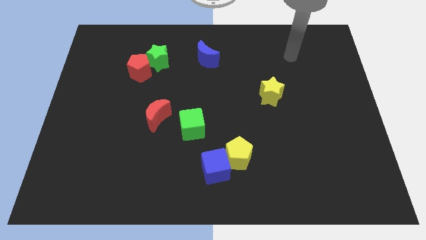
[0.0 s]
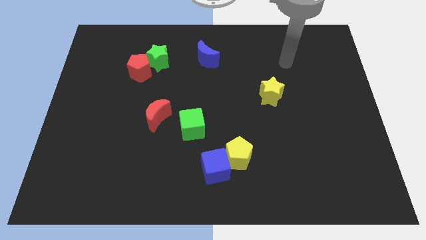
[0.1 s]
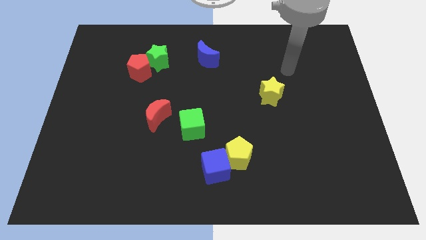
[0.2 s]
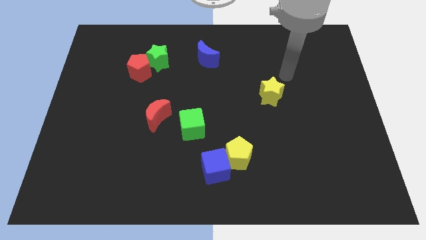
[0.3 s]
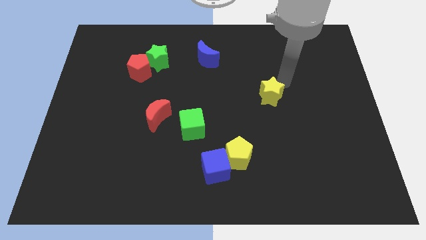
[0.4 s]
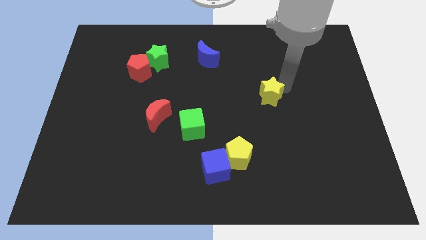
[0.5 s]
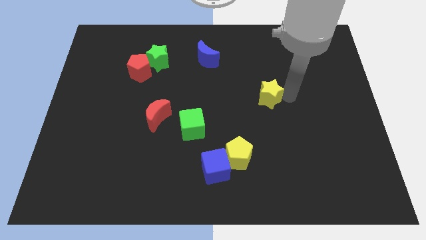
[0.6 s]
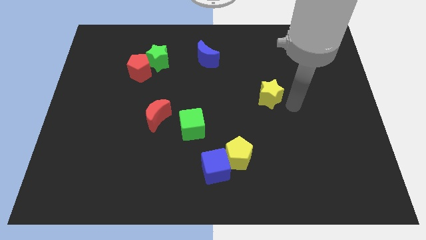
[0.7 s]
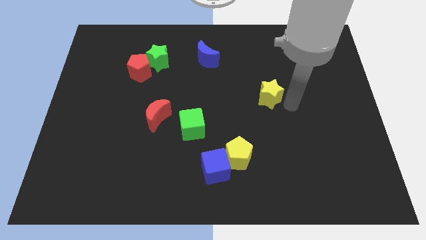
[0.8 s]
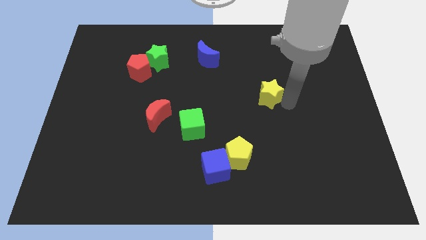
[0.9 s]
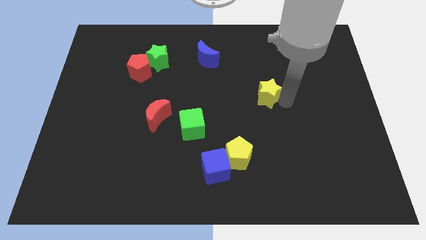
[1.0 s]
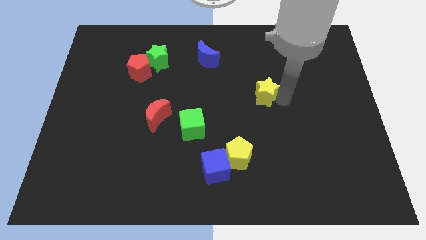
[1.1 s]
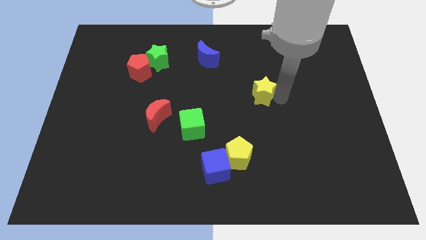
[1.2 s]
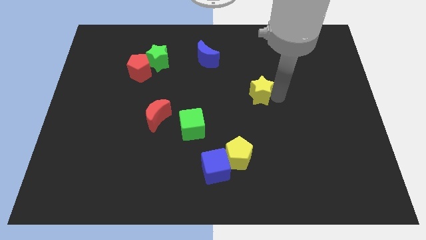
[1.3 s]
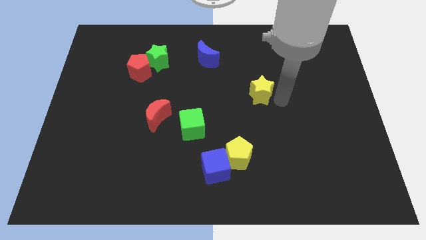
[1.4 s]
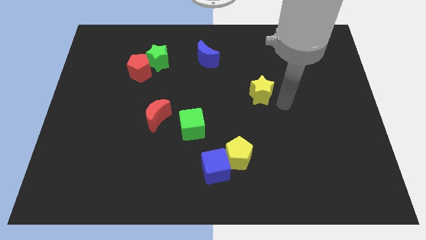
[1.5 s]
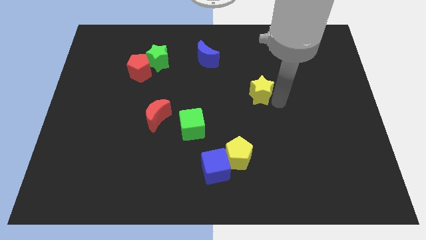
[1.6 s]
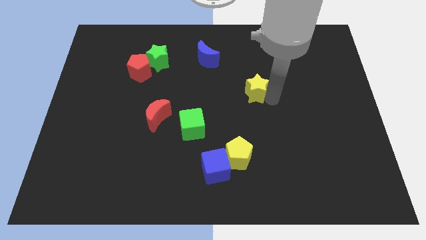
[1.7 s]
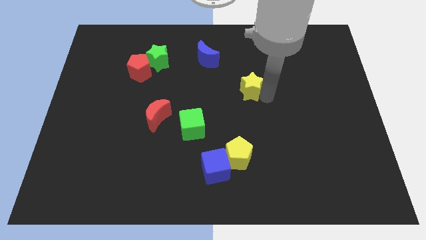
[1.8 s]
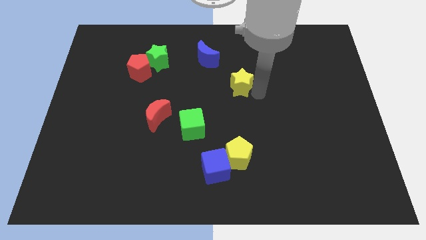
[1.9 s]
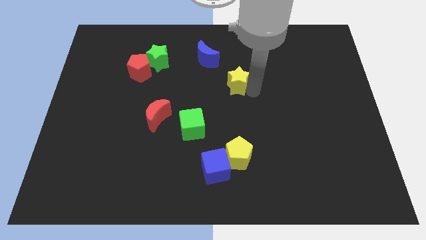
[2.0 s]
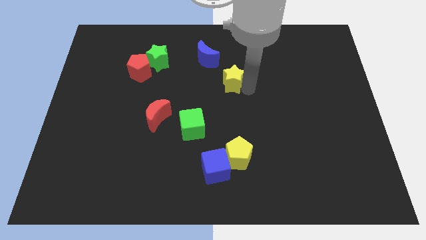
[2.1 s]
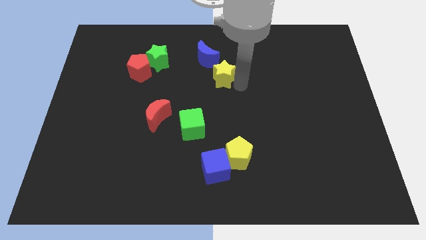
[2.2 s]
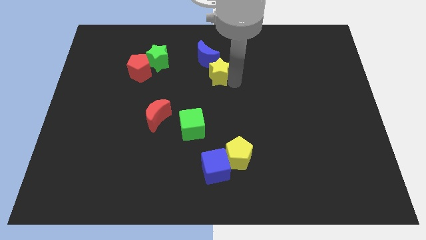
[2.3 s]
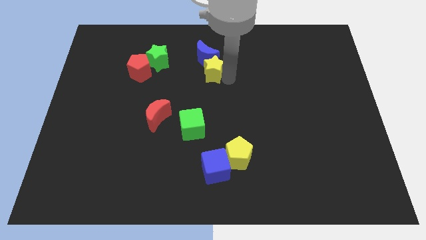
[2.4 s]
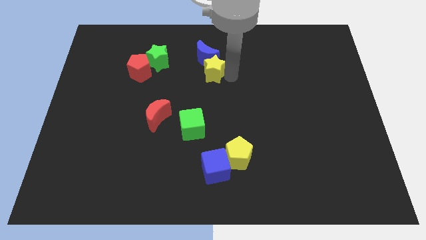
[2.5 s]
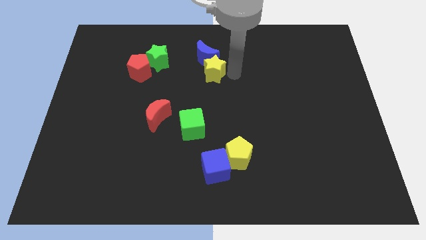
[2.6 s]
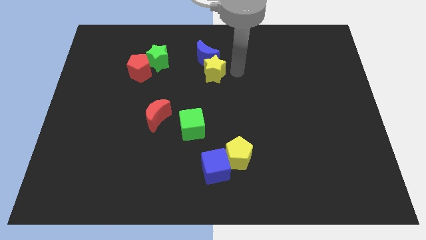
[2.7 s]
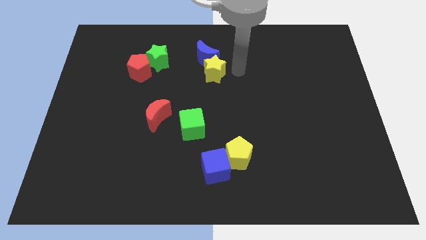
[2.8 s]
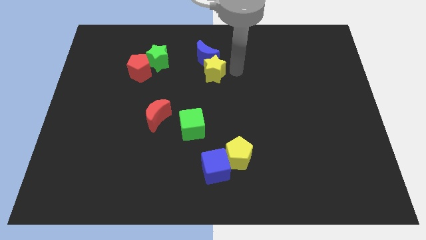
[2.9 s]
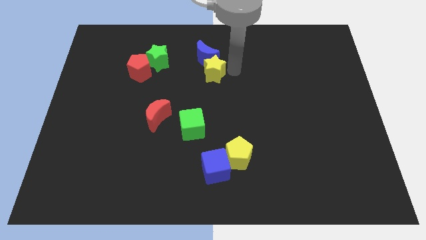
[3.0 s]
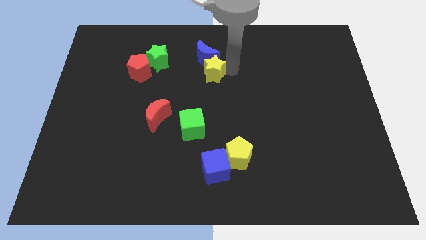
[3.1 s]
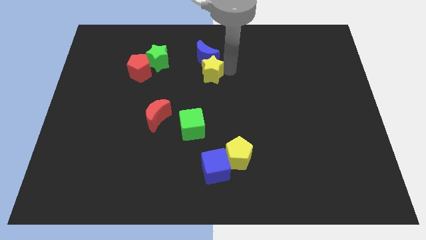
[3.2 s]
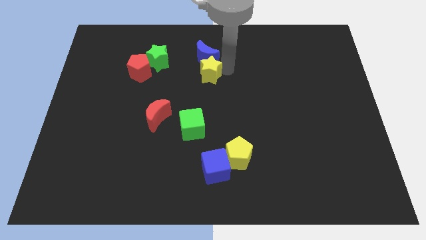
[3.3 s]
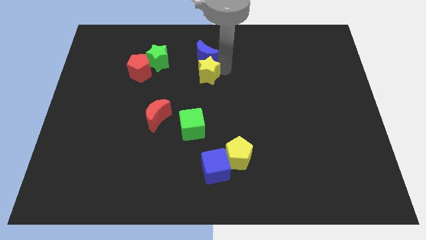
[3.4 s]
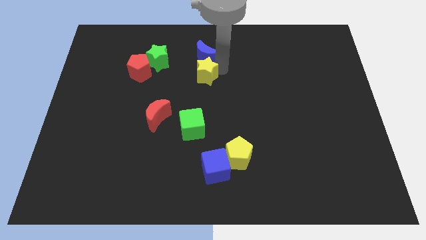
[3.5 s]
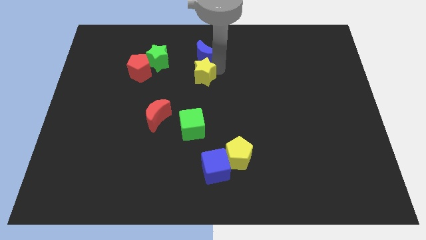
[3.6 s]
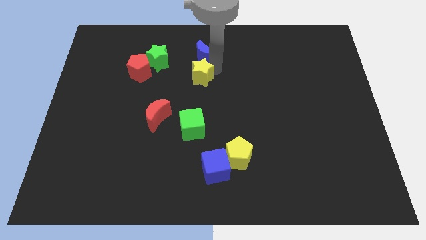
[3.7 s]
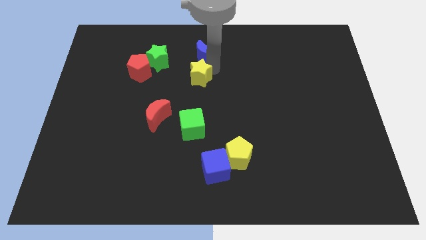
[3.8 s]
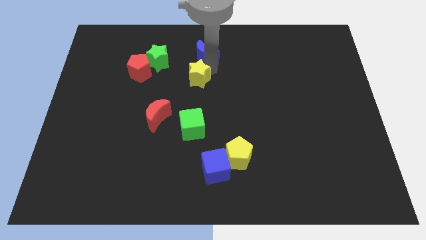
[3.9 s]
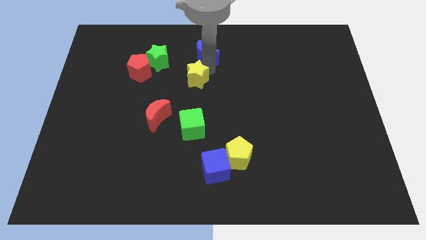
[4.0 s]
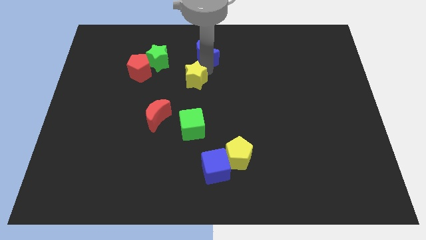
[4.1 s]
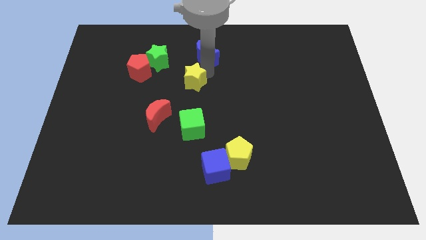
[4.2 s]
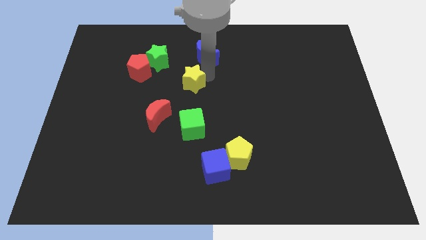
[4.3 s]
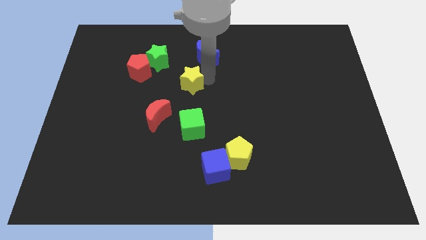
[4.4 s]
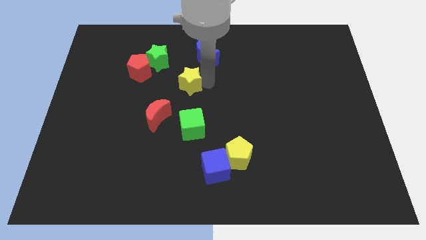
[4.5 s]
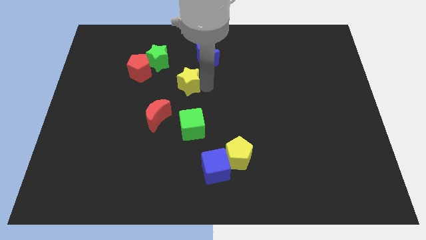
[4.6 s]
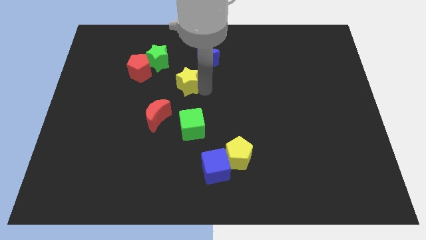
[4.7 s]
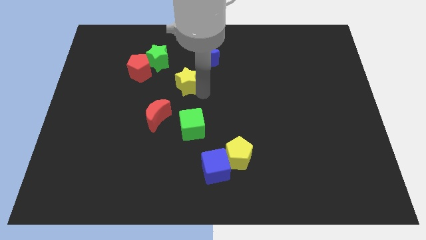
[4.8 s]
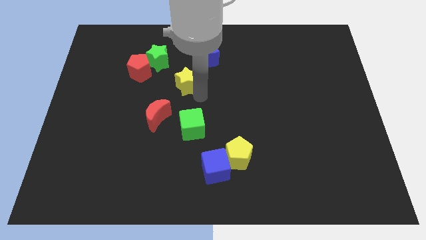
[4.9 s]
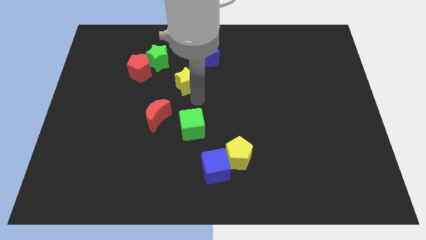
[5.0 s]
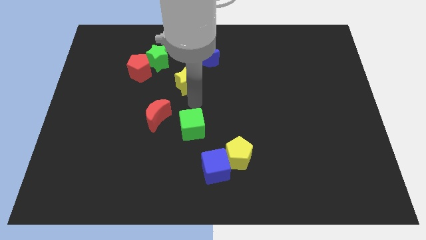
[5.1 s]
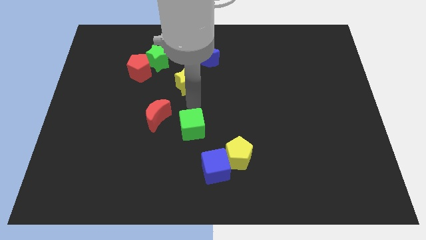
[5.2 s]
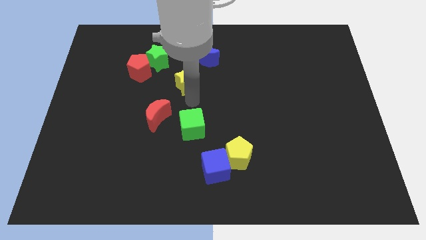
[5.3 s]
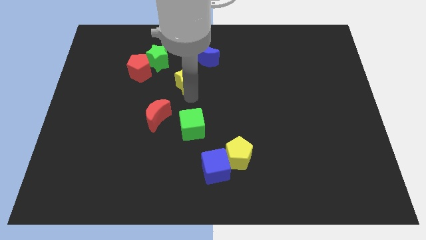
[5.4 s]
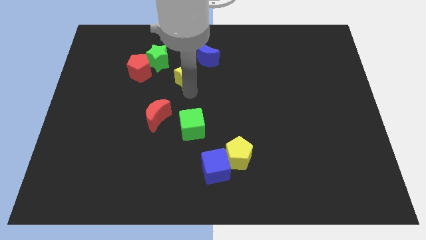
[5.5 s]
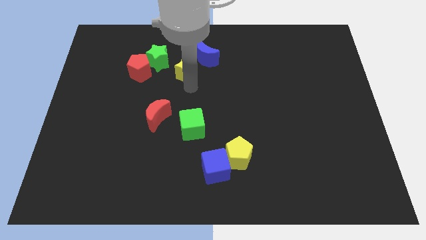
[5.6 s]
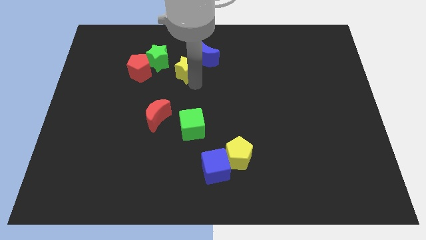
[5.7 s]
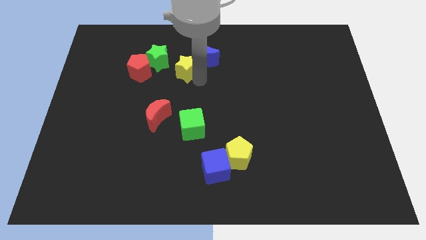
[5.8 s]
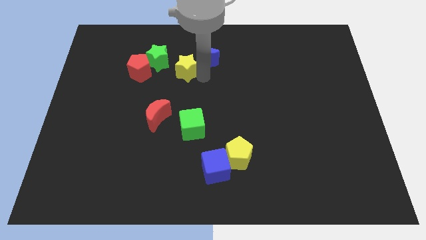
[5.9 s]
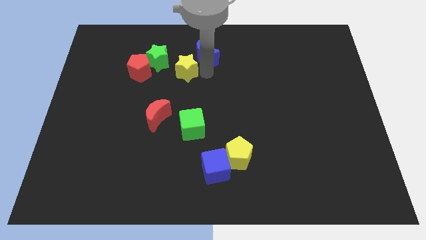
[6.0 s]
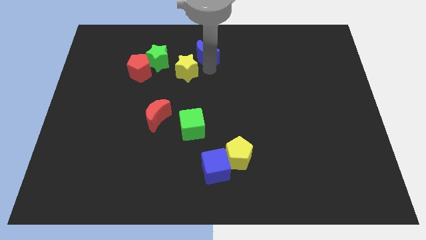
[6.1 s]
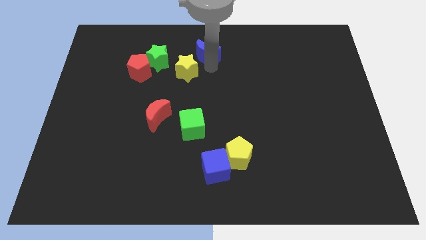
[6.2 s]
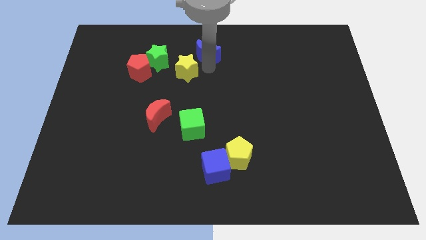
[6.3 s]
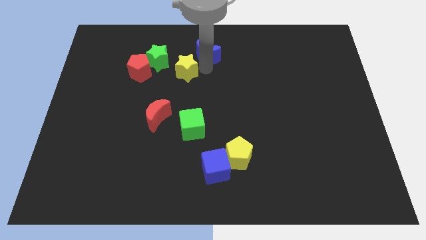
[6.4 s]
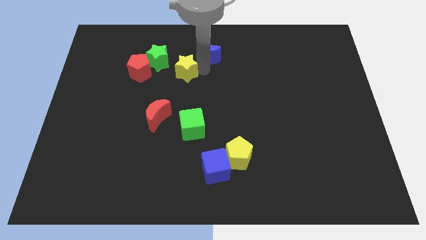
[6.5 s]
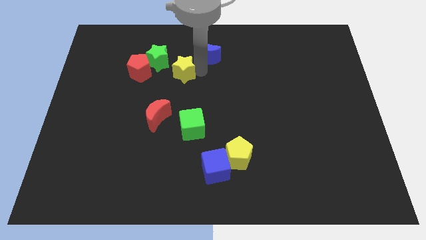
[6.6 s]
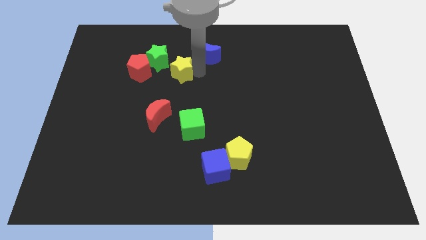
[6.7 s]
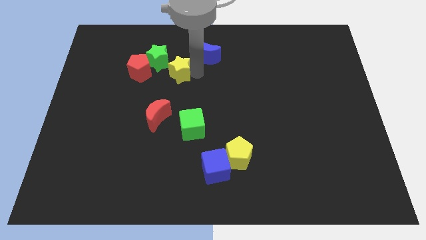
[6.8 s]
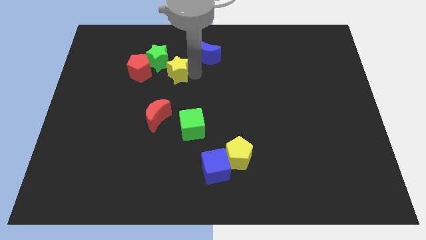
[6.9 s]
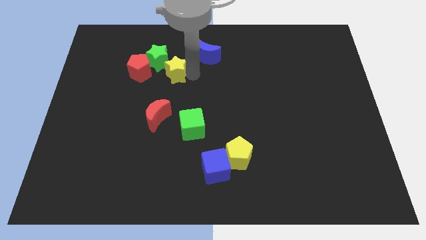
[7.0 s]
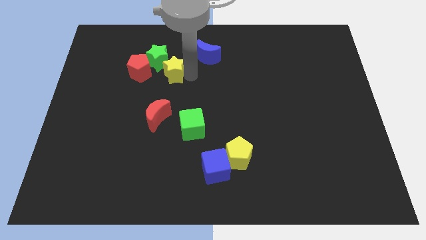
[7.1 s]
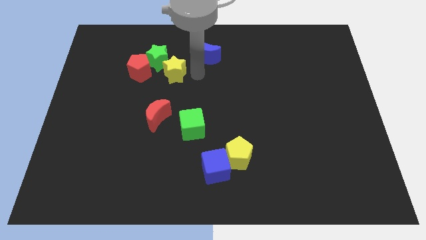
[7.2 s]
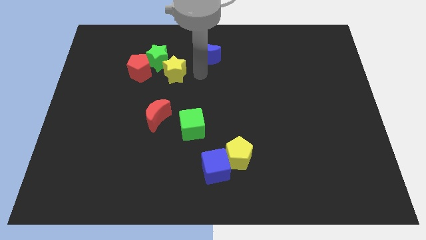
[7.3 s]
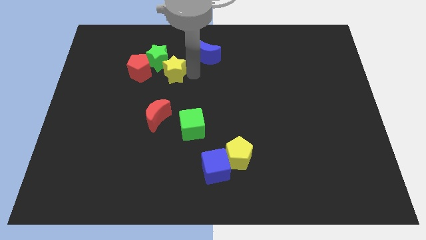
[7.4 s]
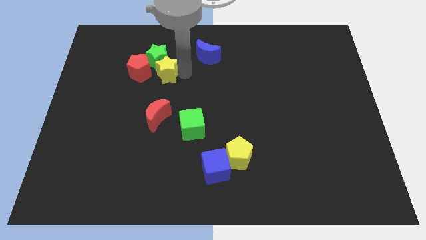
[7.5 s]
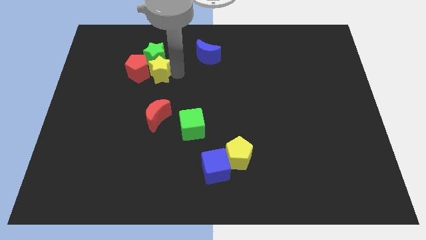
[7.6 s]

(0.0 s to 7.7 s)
slide the yellow star to the red pentagon
